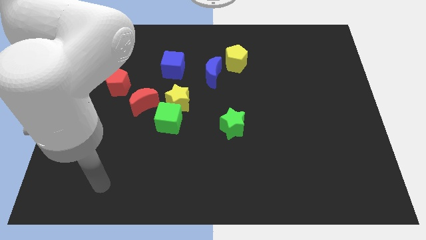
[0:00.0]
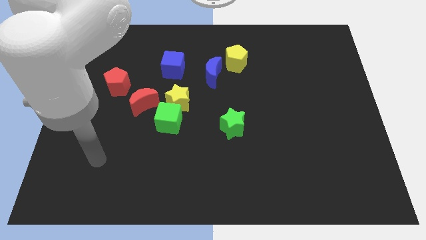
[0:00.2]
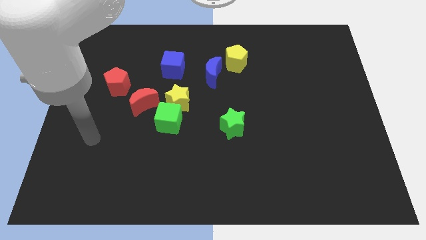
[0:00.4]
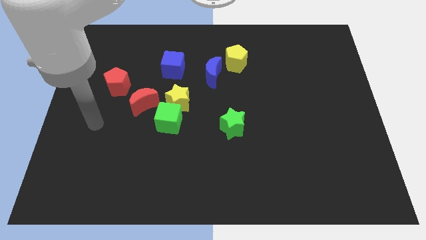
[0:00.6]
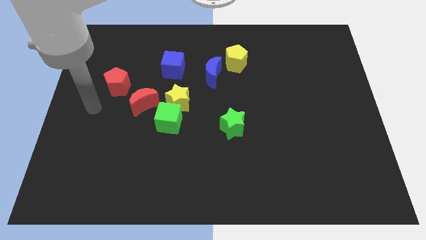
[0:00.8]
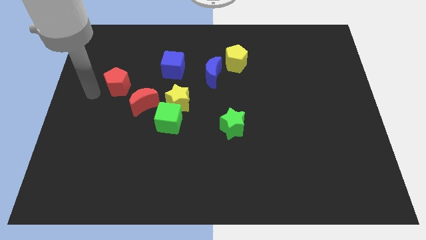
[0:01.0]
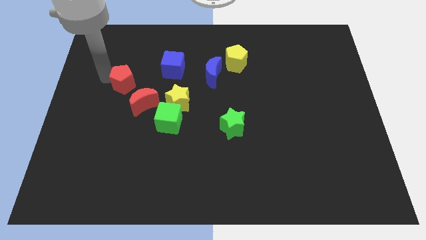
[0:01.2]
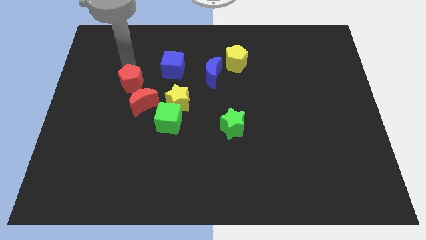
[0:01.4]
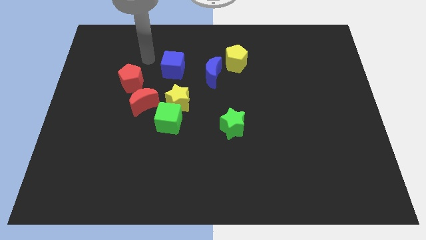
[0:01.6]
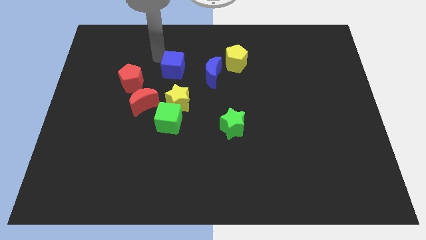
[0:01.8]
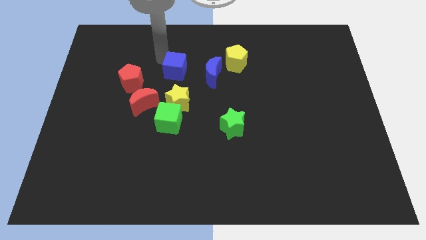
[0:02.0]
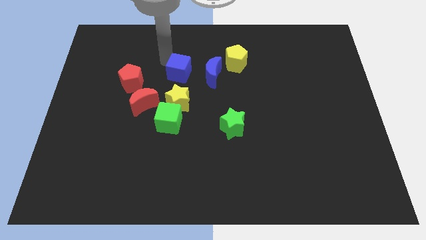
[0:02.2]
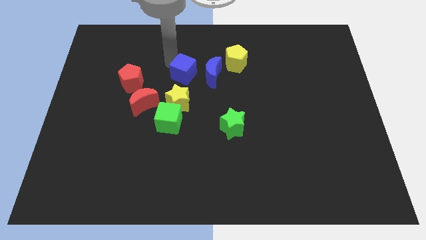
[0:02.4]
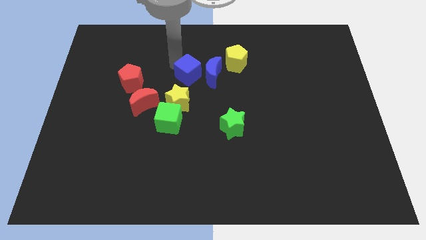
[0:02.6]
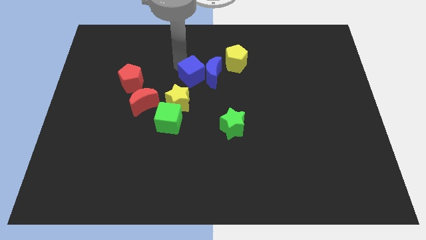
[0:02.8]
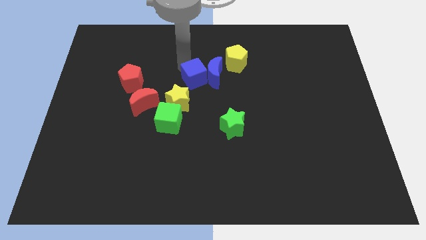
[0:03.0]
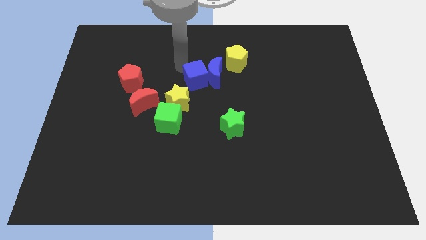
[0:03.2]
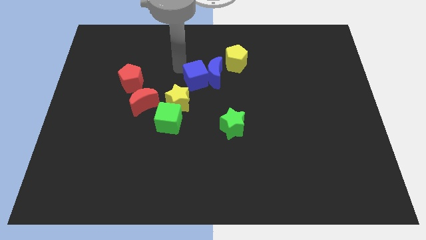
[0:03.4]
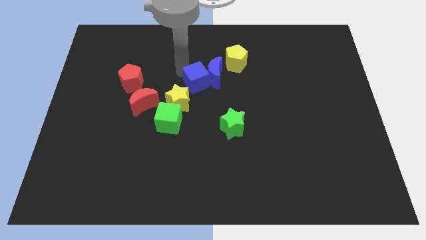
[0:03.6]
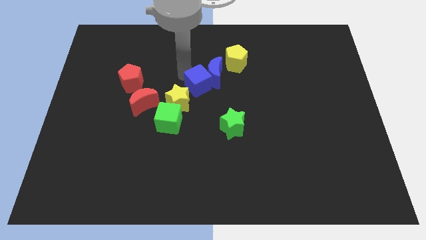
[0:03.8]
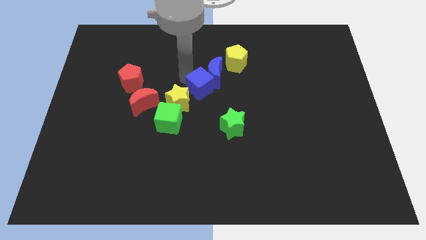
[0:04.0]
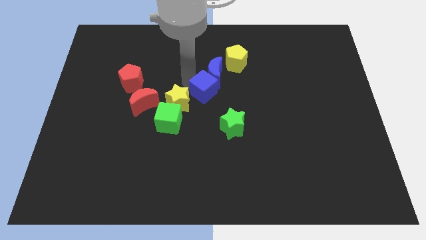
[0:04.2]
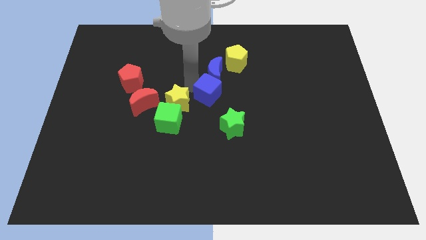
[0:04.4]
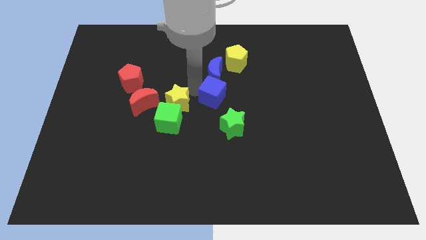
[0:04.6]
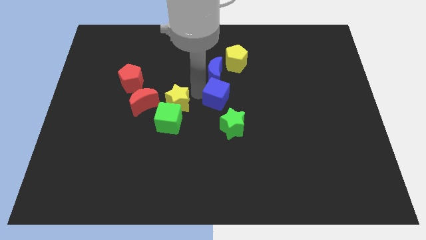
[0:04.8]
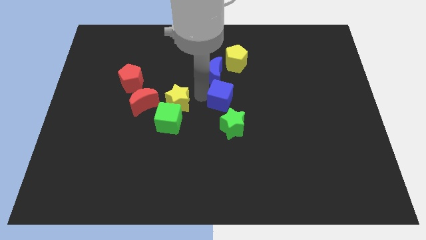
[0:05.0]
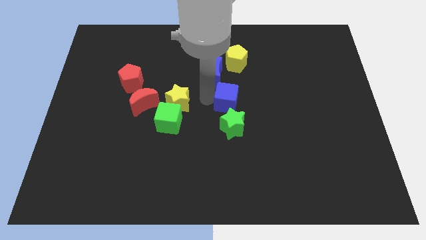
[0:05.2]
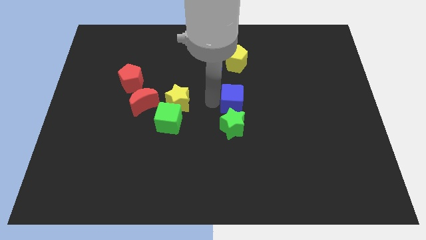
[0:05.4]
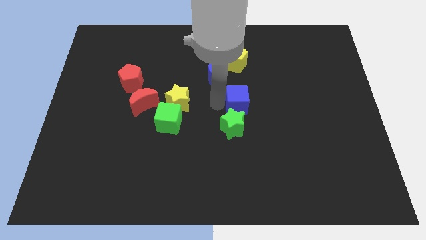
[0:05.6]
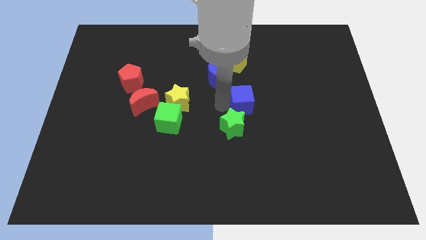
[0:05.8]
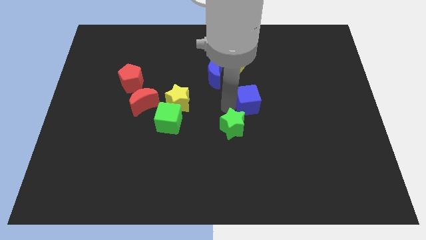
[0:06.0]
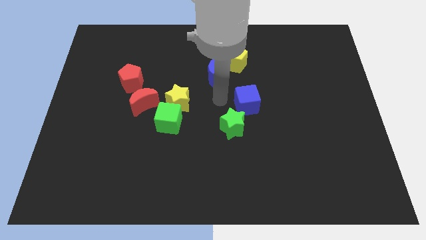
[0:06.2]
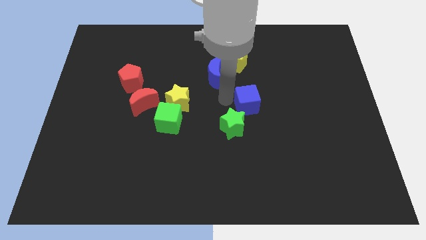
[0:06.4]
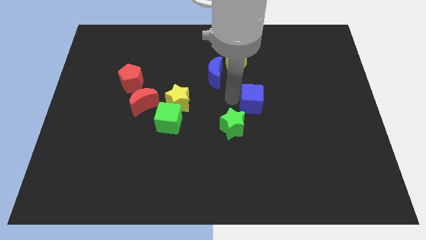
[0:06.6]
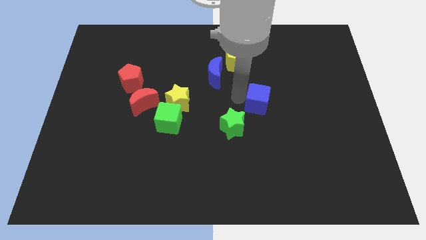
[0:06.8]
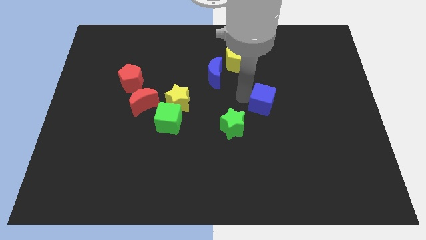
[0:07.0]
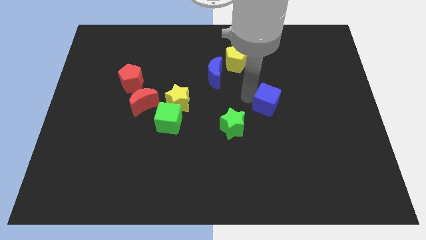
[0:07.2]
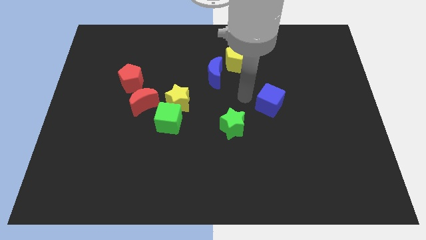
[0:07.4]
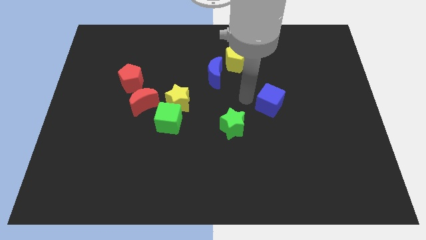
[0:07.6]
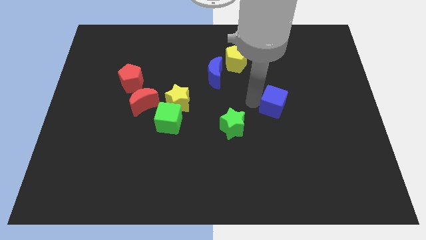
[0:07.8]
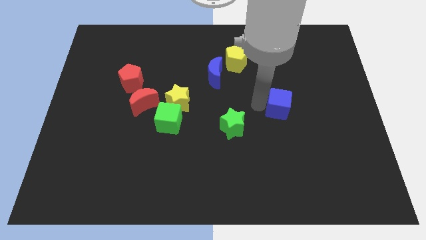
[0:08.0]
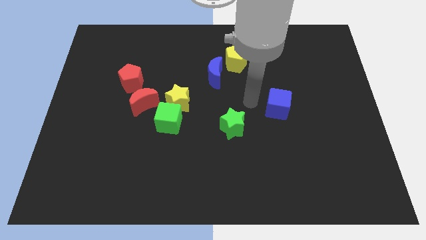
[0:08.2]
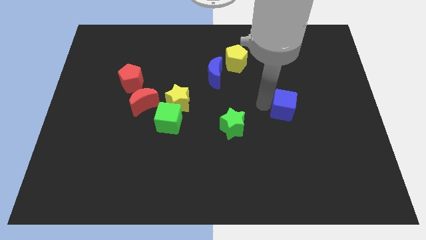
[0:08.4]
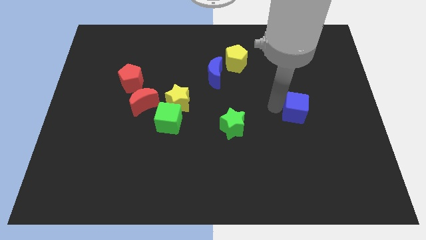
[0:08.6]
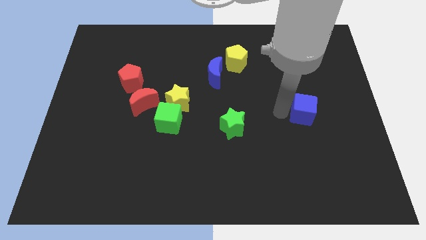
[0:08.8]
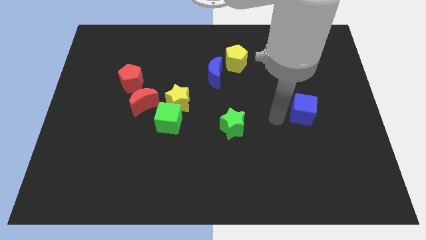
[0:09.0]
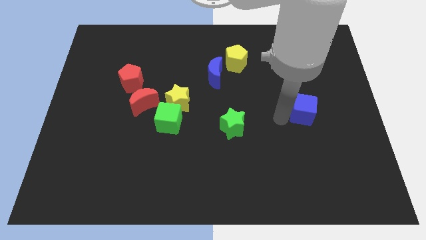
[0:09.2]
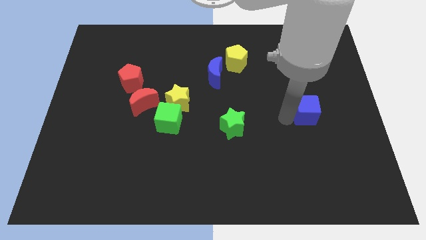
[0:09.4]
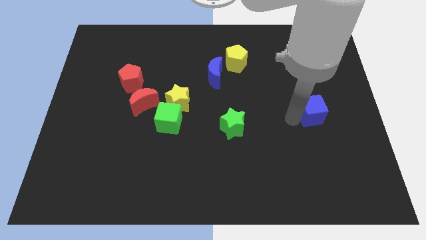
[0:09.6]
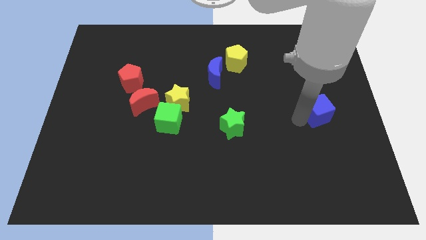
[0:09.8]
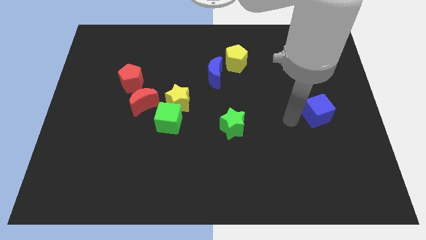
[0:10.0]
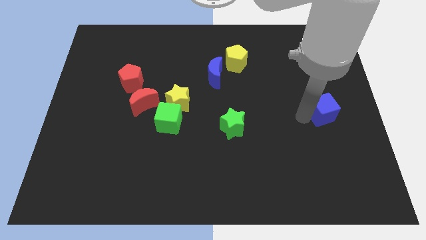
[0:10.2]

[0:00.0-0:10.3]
move the blue cube to the right side

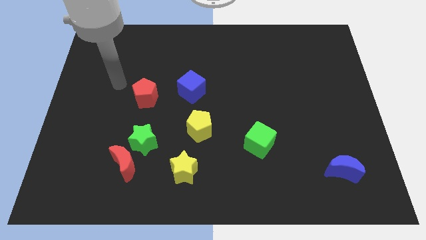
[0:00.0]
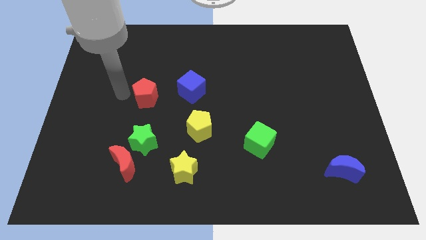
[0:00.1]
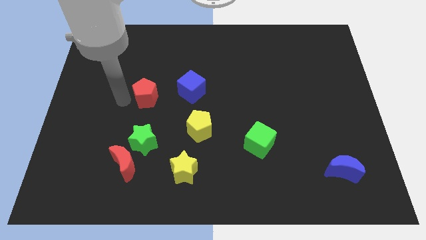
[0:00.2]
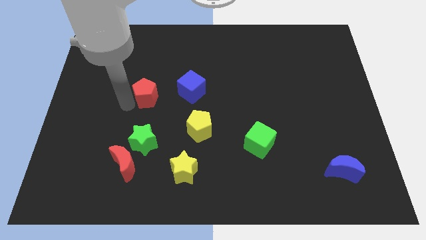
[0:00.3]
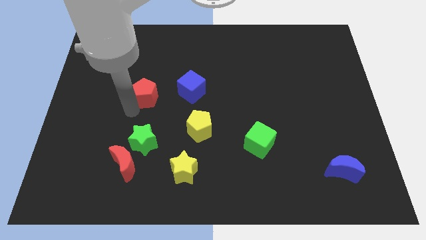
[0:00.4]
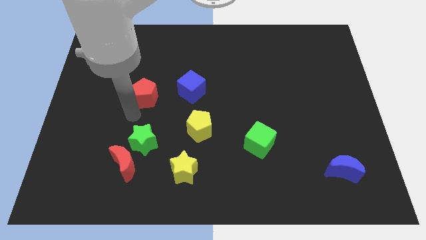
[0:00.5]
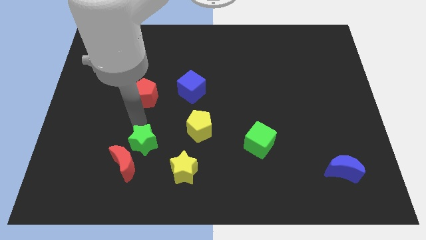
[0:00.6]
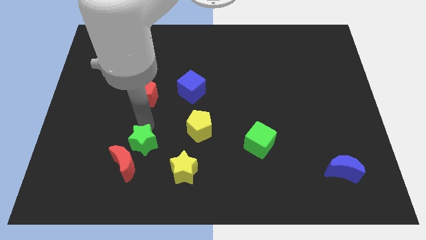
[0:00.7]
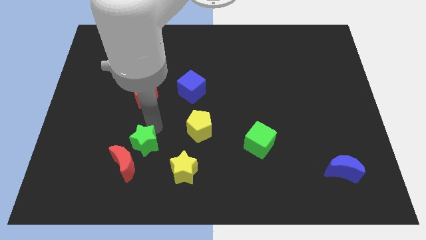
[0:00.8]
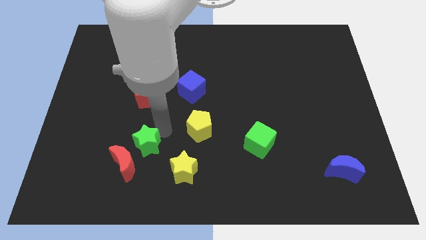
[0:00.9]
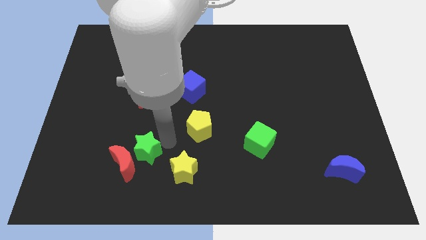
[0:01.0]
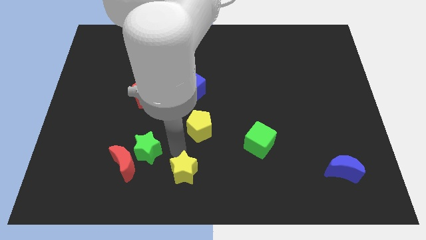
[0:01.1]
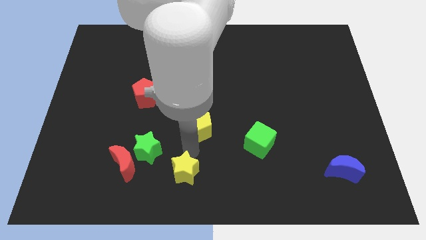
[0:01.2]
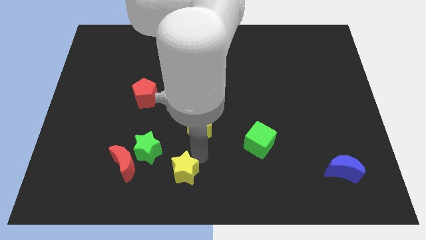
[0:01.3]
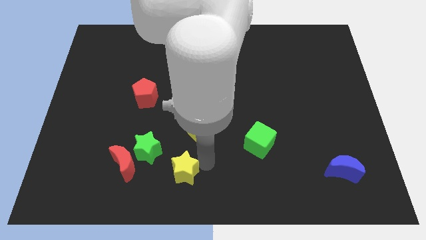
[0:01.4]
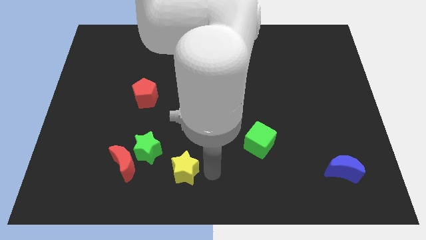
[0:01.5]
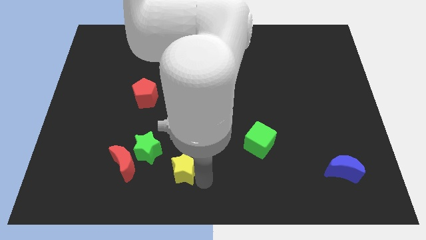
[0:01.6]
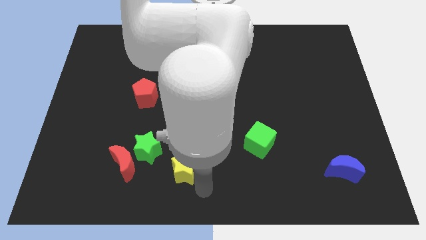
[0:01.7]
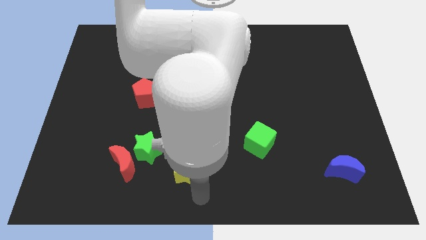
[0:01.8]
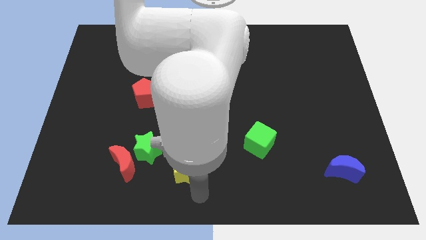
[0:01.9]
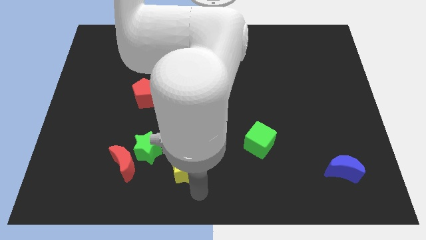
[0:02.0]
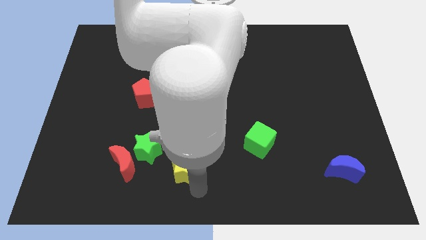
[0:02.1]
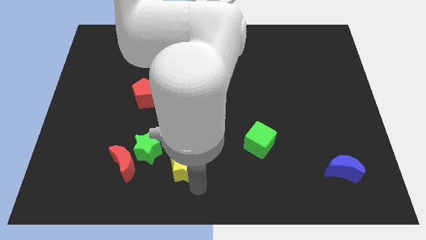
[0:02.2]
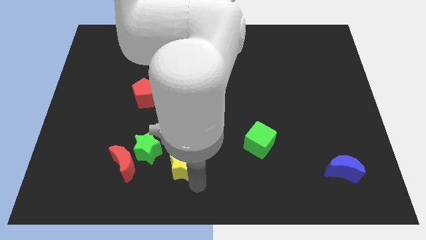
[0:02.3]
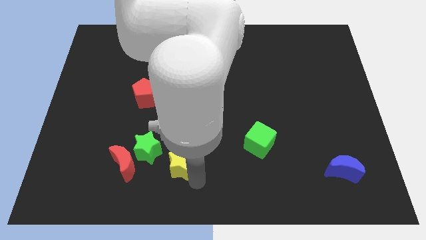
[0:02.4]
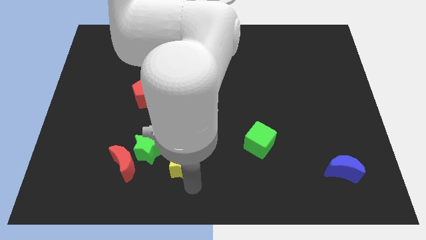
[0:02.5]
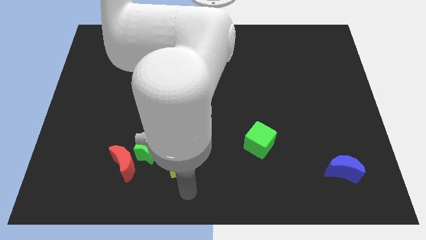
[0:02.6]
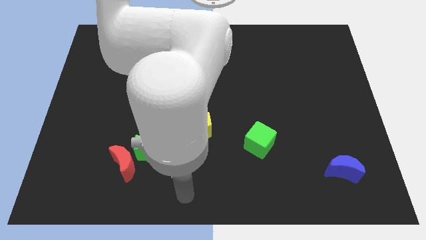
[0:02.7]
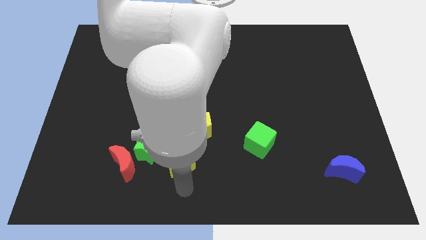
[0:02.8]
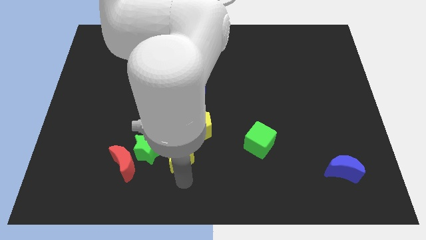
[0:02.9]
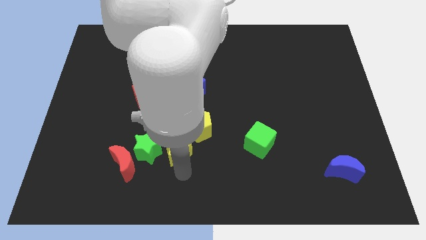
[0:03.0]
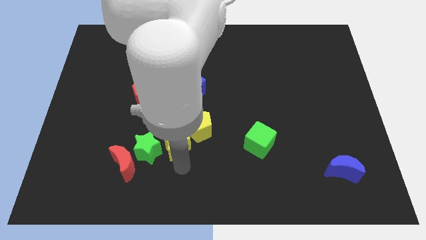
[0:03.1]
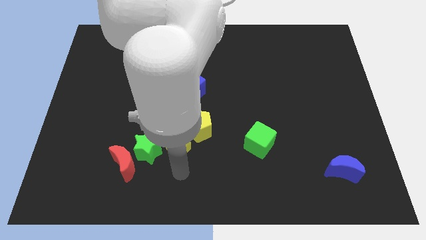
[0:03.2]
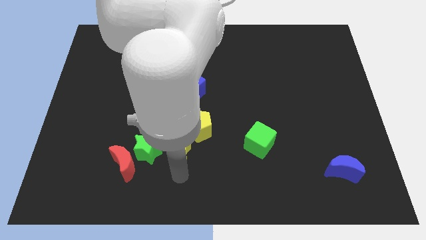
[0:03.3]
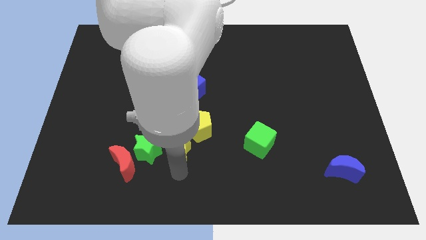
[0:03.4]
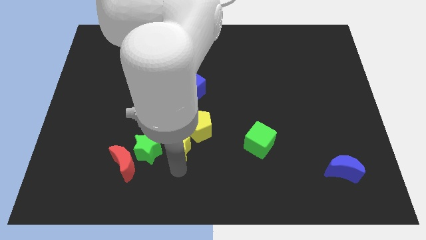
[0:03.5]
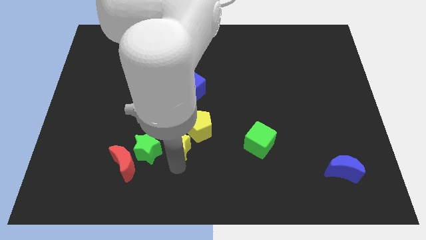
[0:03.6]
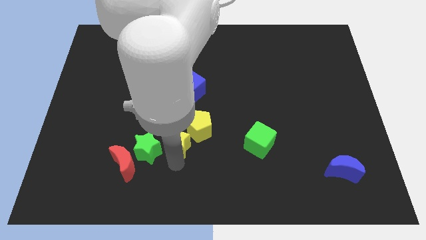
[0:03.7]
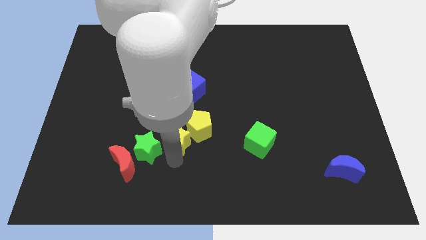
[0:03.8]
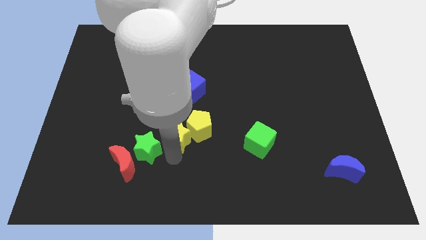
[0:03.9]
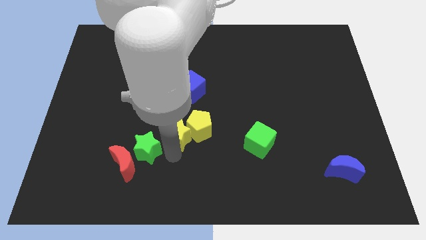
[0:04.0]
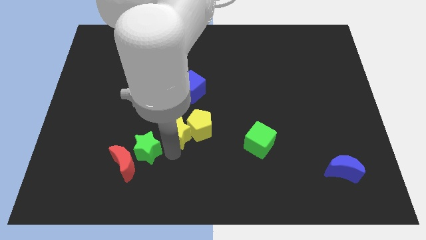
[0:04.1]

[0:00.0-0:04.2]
put the yellow star to the center of the board
